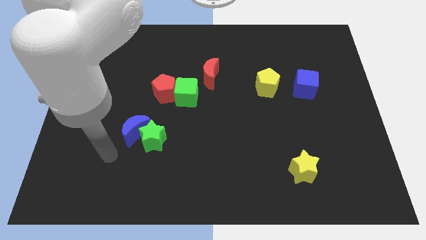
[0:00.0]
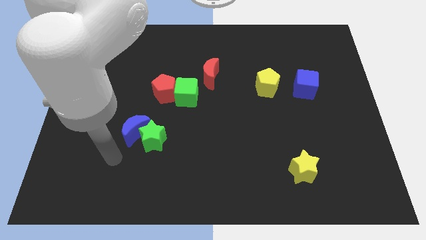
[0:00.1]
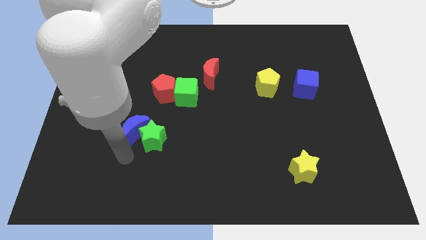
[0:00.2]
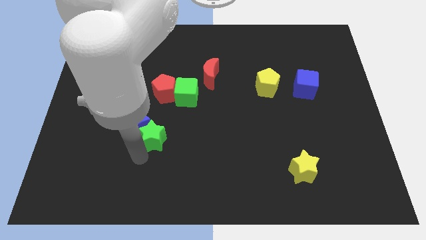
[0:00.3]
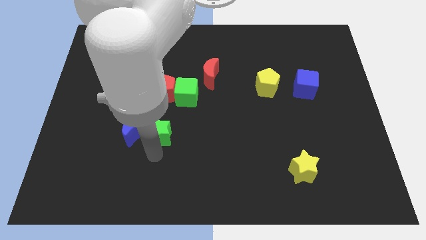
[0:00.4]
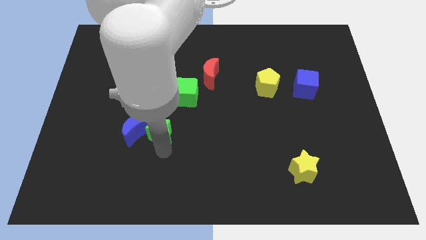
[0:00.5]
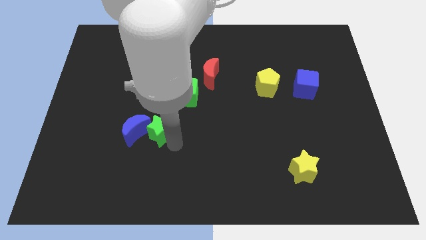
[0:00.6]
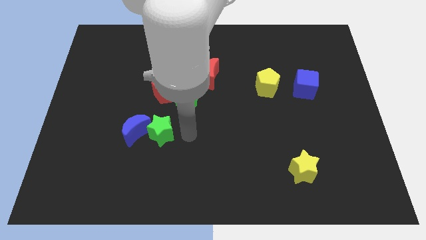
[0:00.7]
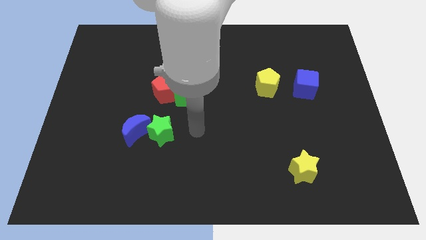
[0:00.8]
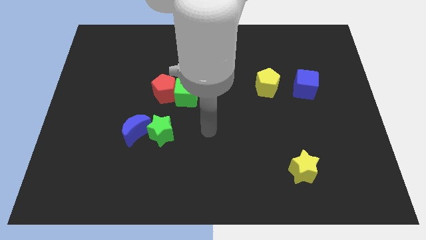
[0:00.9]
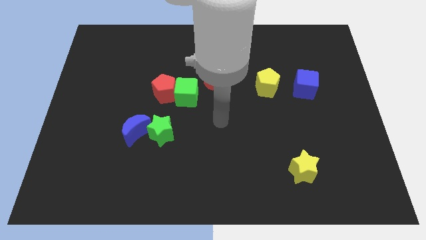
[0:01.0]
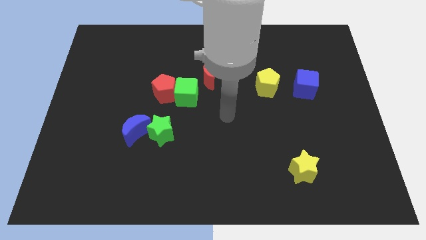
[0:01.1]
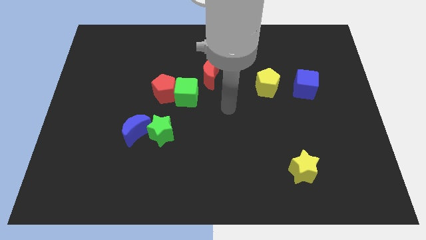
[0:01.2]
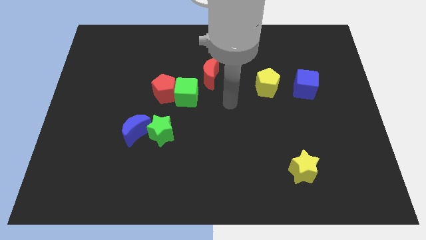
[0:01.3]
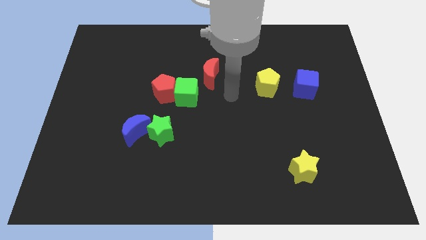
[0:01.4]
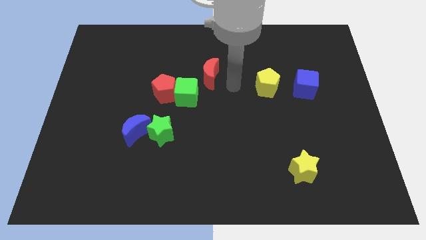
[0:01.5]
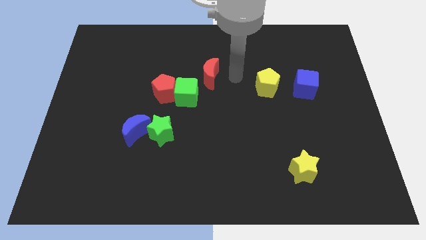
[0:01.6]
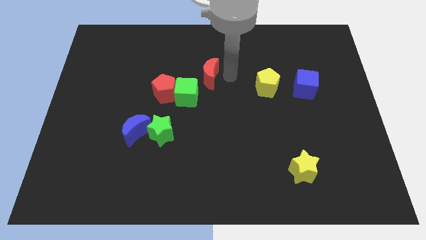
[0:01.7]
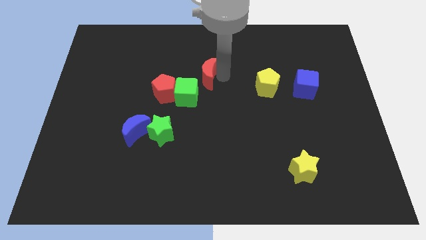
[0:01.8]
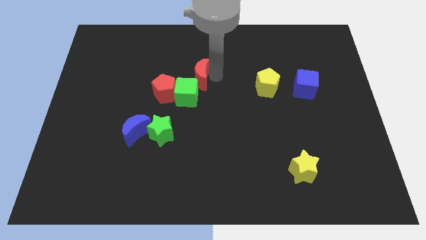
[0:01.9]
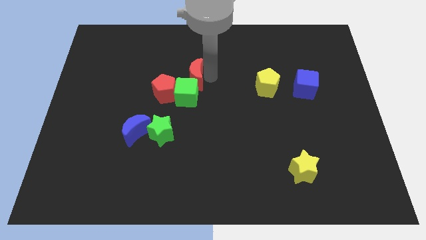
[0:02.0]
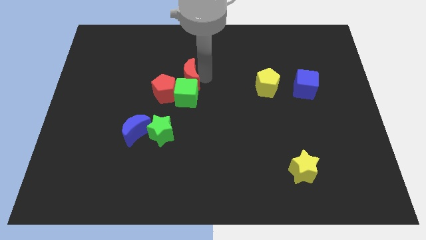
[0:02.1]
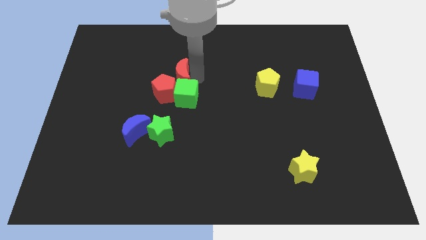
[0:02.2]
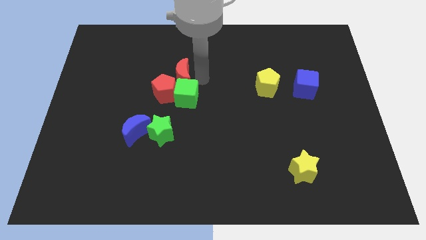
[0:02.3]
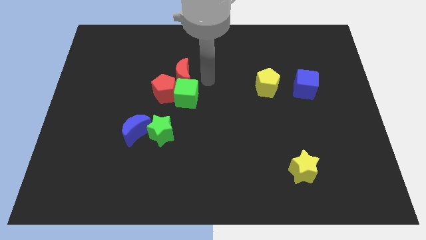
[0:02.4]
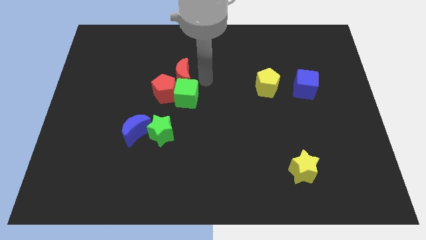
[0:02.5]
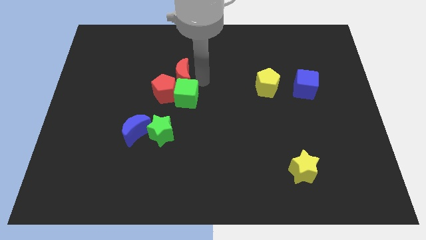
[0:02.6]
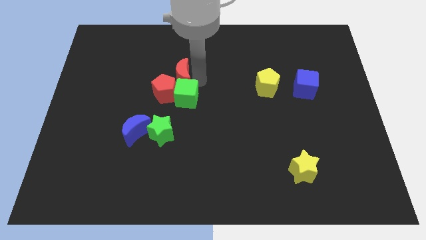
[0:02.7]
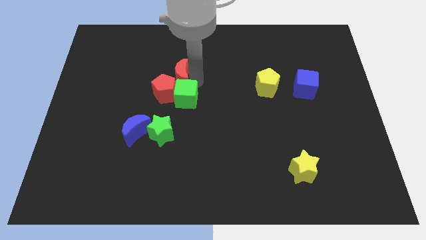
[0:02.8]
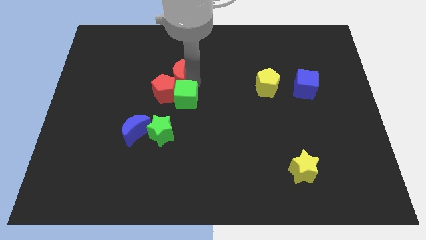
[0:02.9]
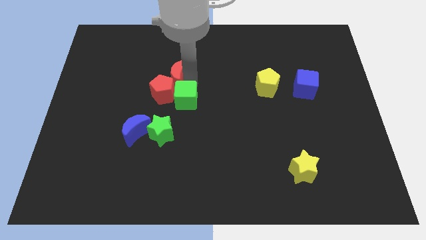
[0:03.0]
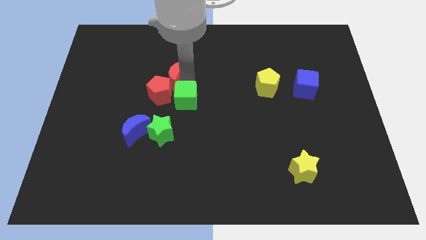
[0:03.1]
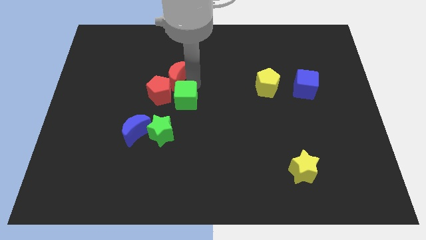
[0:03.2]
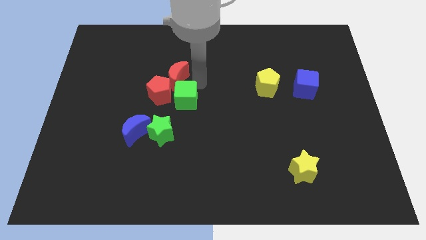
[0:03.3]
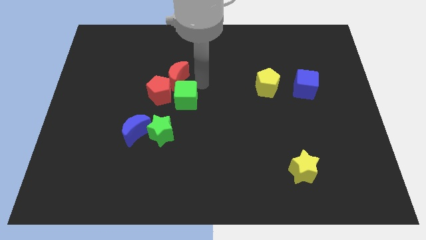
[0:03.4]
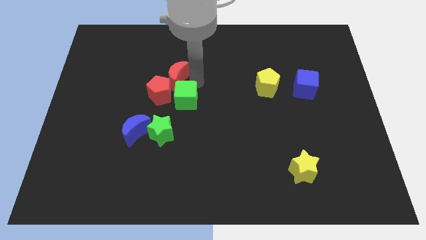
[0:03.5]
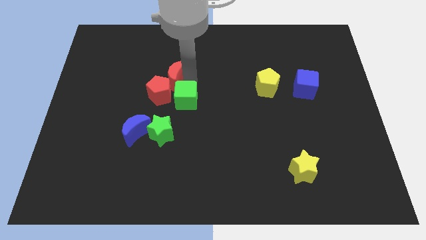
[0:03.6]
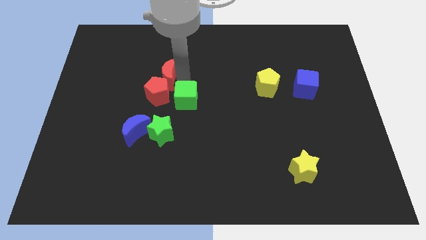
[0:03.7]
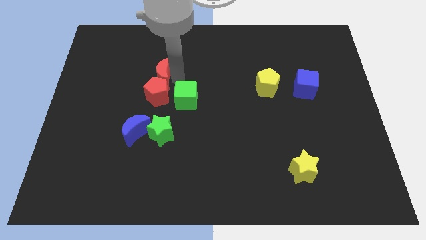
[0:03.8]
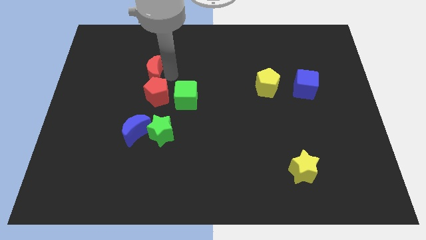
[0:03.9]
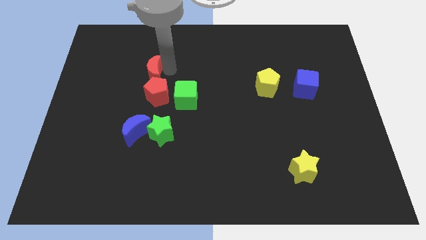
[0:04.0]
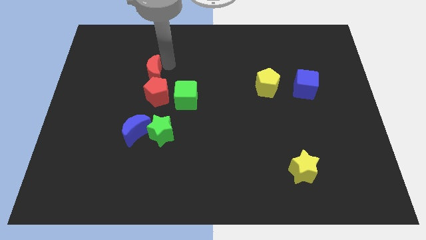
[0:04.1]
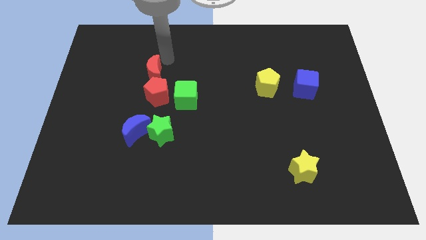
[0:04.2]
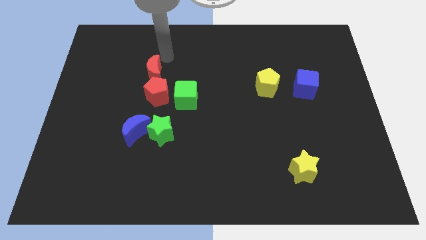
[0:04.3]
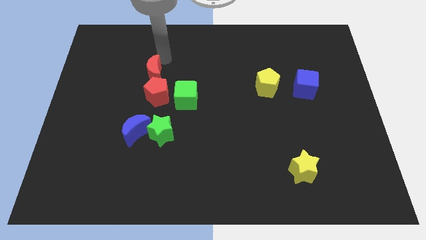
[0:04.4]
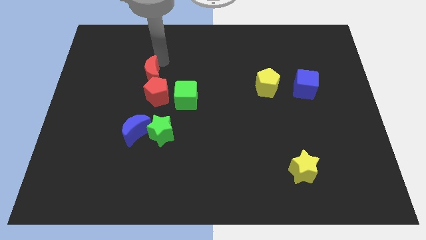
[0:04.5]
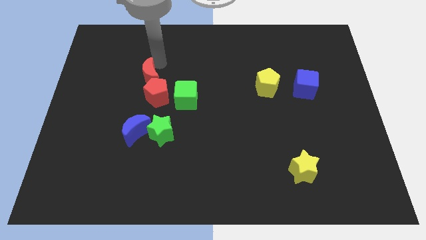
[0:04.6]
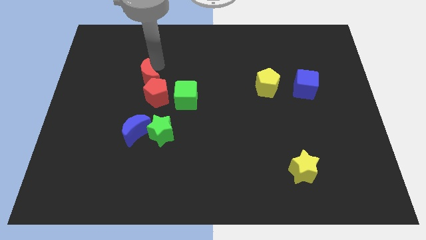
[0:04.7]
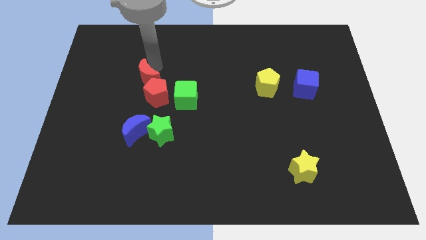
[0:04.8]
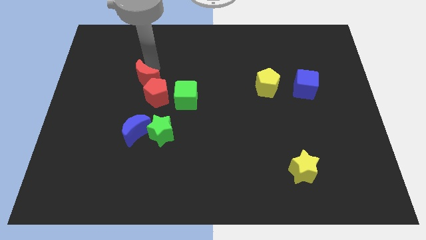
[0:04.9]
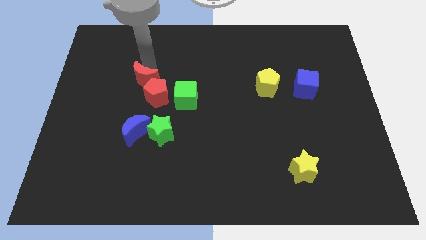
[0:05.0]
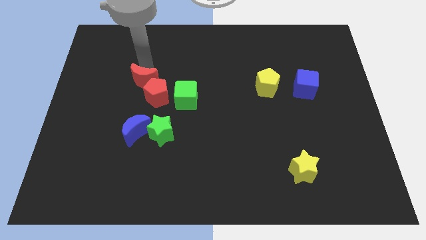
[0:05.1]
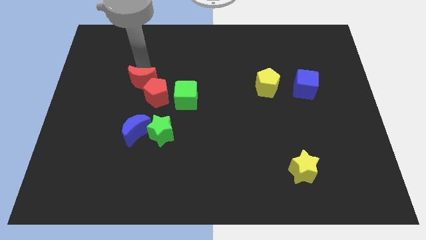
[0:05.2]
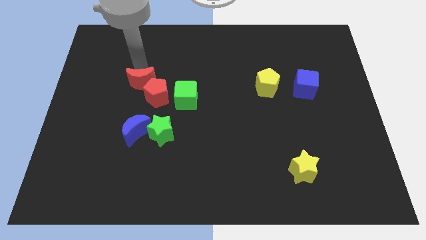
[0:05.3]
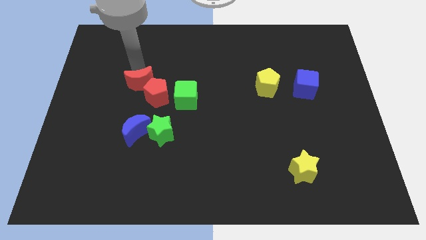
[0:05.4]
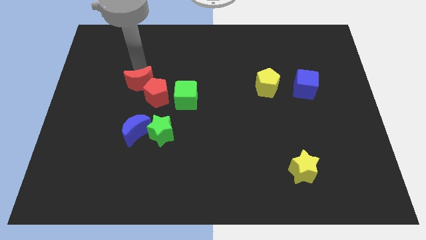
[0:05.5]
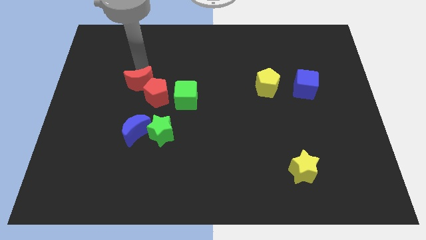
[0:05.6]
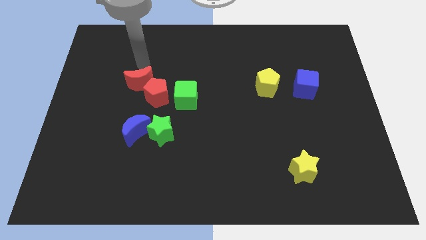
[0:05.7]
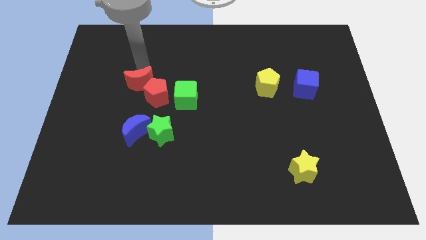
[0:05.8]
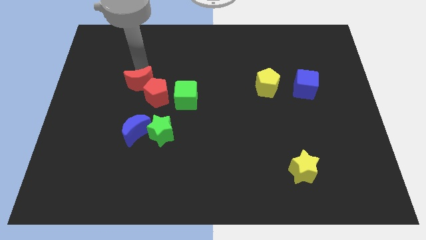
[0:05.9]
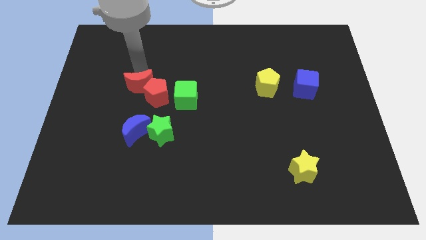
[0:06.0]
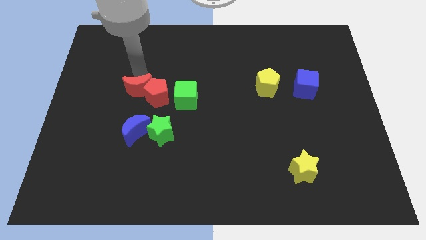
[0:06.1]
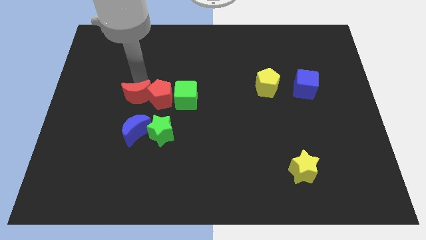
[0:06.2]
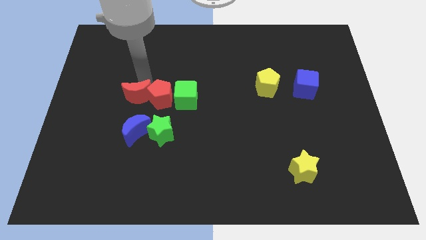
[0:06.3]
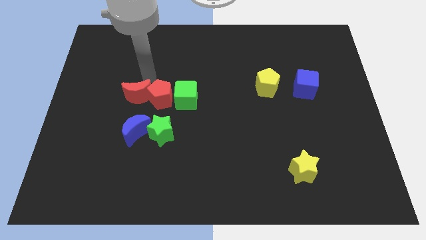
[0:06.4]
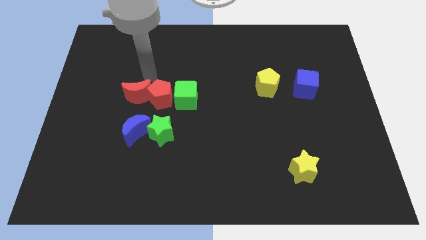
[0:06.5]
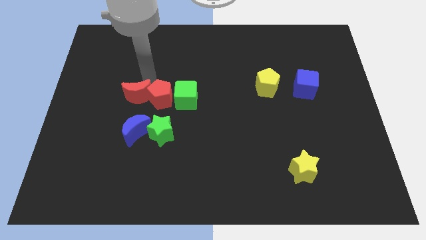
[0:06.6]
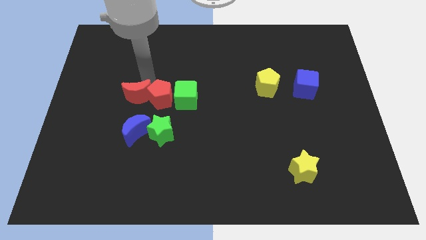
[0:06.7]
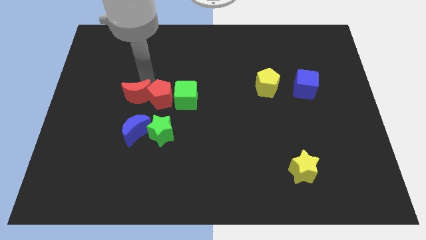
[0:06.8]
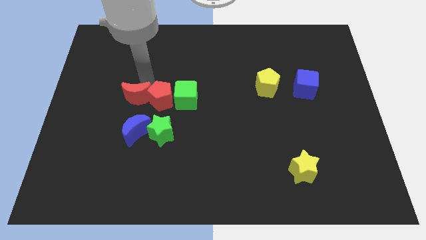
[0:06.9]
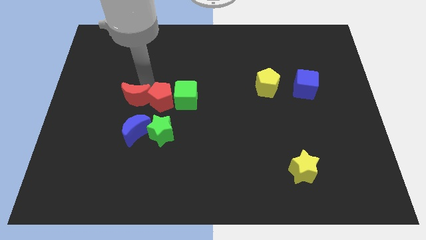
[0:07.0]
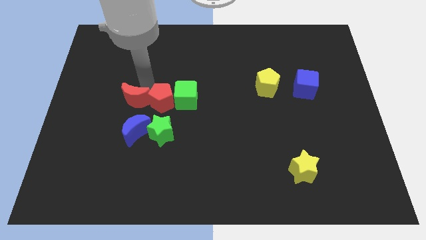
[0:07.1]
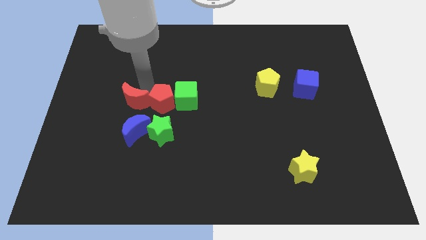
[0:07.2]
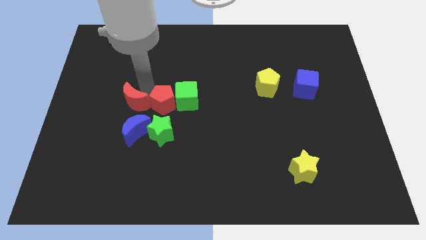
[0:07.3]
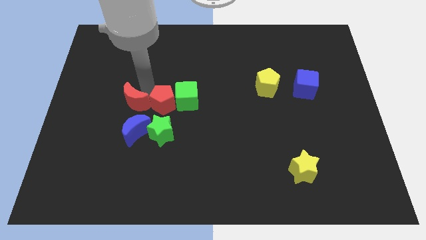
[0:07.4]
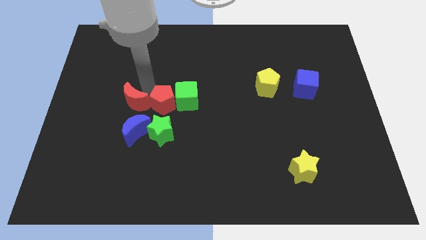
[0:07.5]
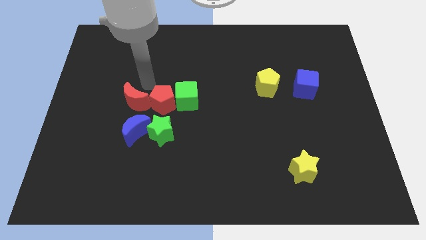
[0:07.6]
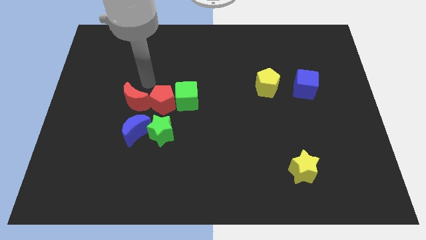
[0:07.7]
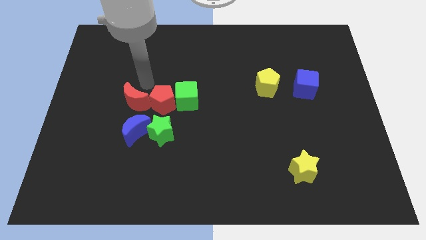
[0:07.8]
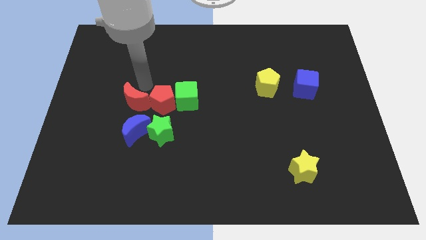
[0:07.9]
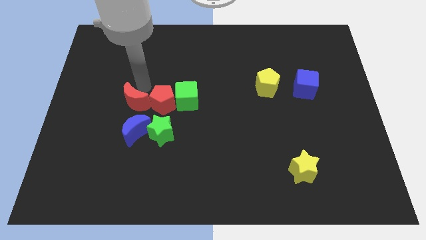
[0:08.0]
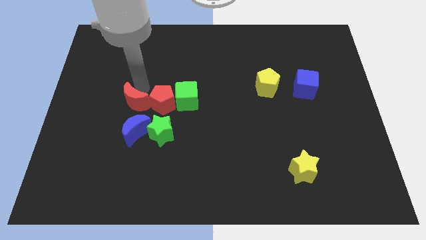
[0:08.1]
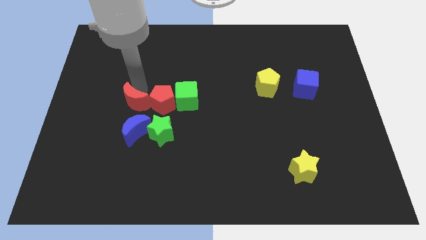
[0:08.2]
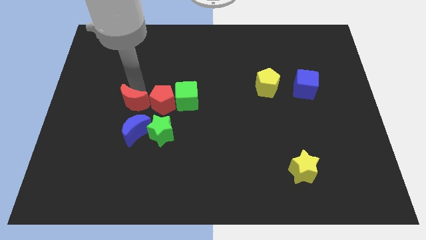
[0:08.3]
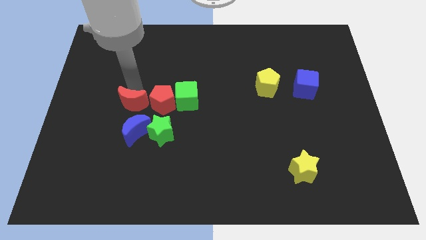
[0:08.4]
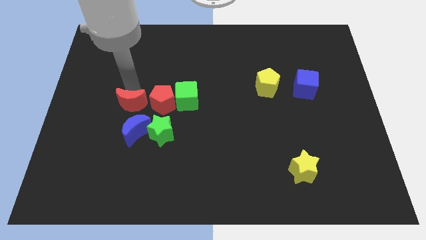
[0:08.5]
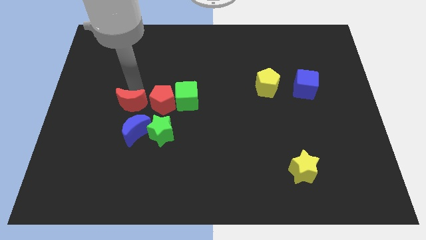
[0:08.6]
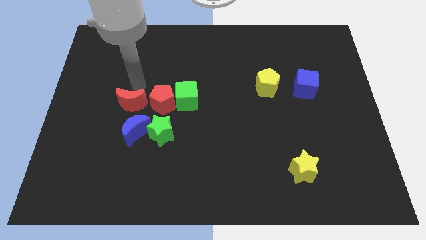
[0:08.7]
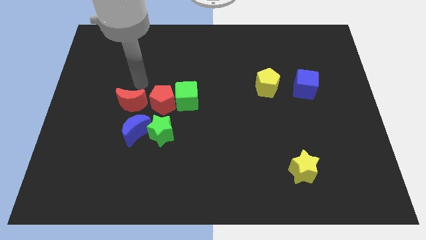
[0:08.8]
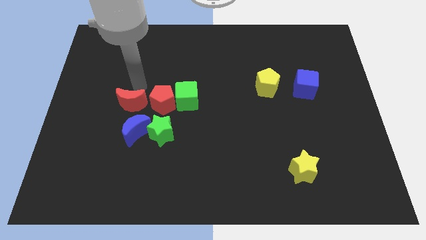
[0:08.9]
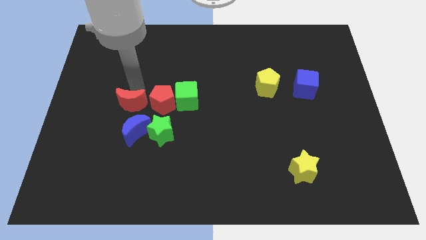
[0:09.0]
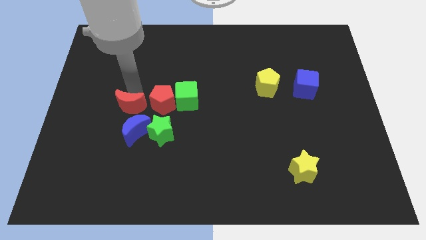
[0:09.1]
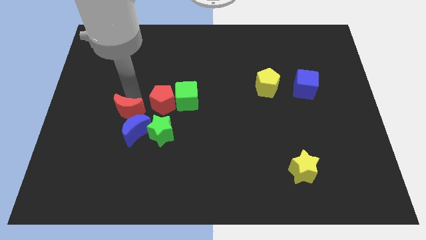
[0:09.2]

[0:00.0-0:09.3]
move the red moon diagonally down and left
